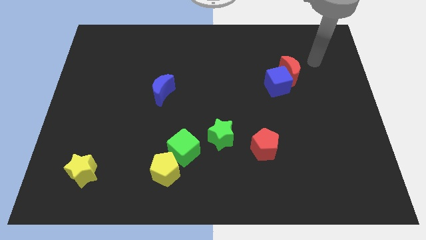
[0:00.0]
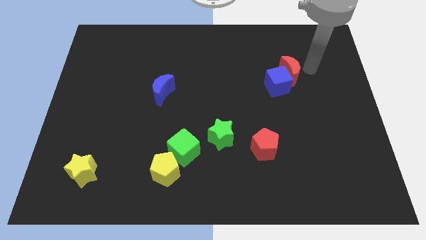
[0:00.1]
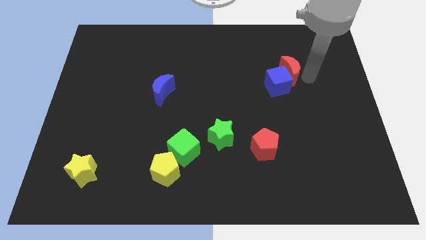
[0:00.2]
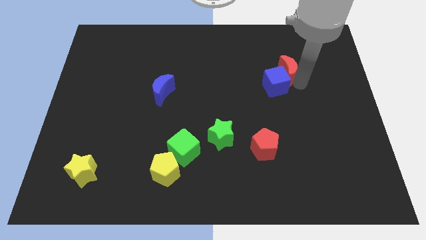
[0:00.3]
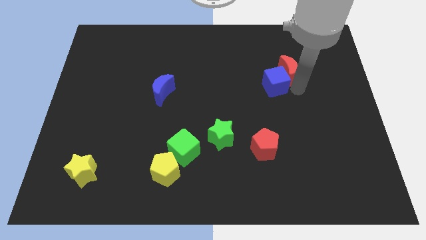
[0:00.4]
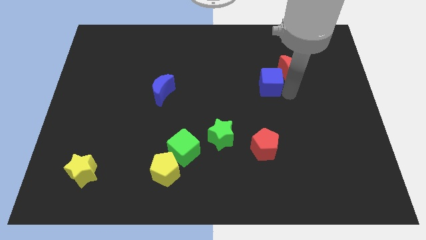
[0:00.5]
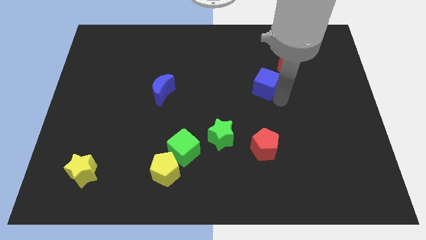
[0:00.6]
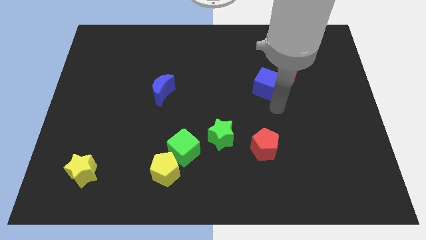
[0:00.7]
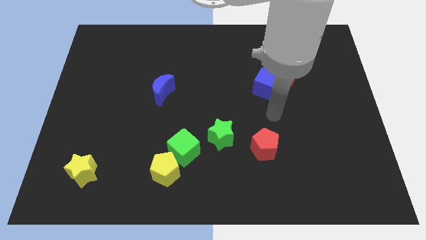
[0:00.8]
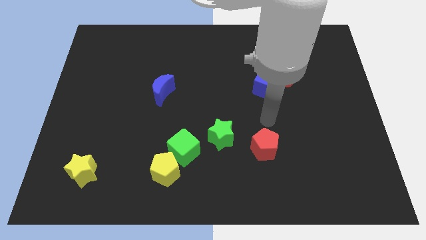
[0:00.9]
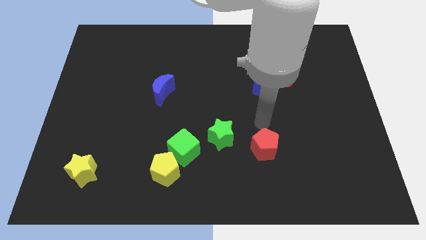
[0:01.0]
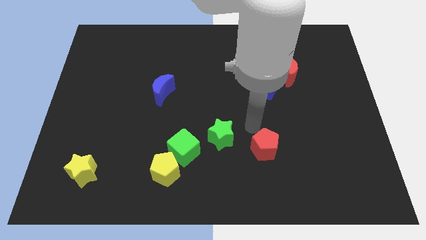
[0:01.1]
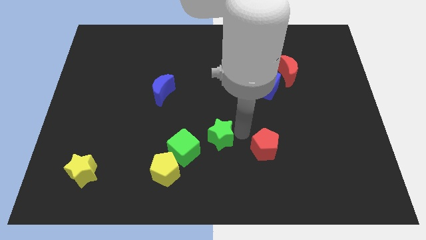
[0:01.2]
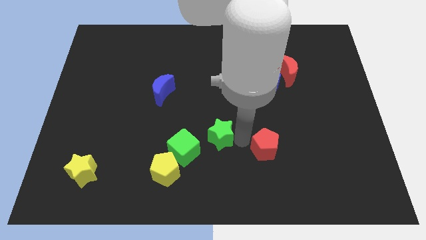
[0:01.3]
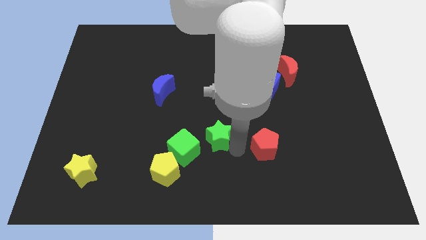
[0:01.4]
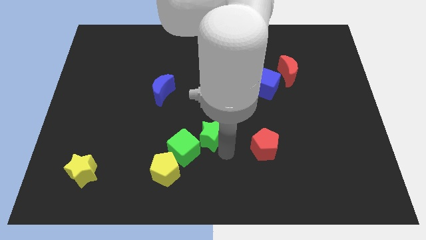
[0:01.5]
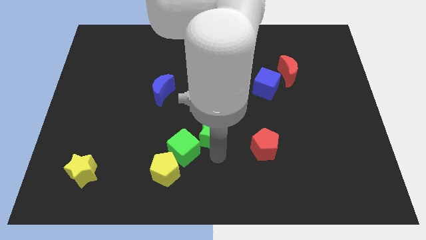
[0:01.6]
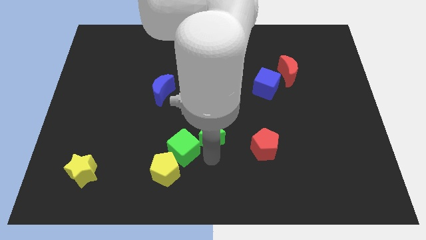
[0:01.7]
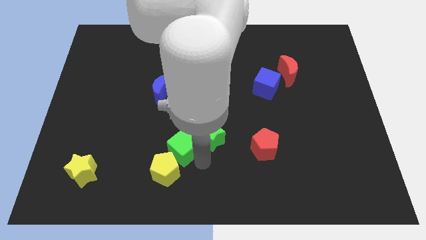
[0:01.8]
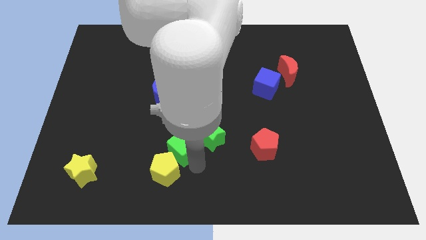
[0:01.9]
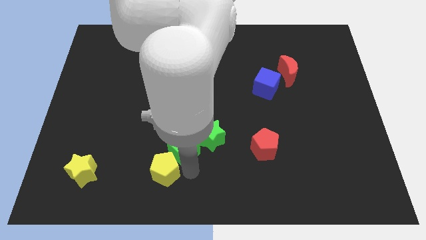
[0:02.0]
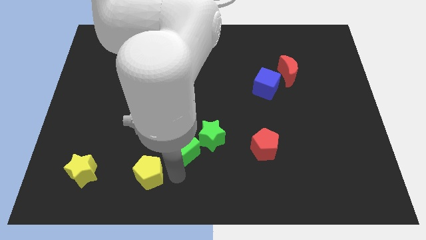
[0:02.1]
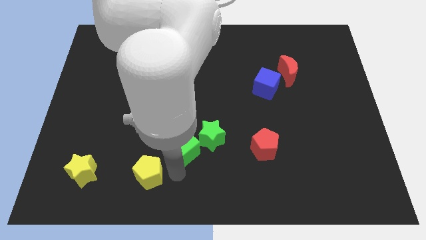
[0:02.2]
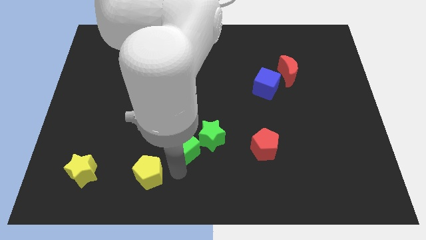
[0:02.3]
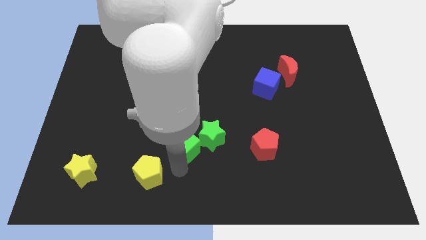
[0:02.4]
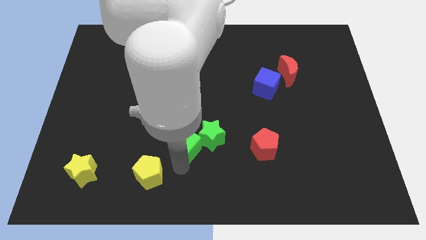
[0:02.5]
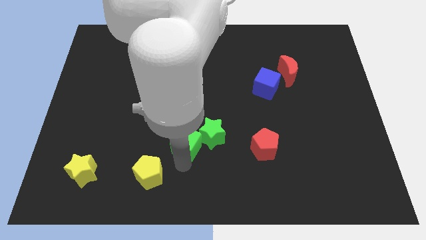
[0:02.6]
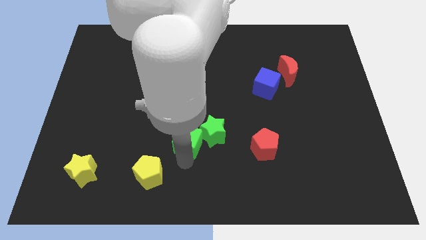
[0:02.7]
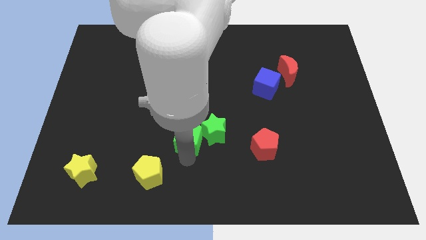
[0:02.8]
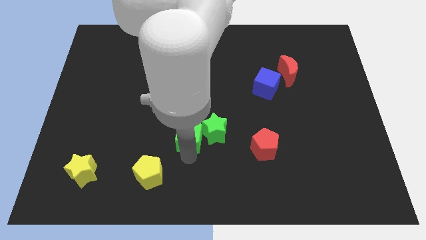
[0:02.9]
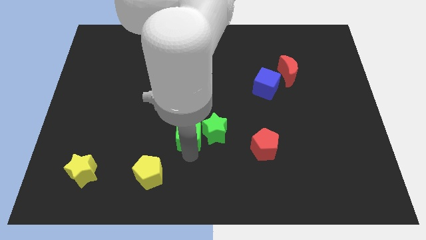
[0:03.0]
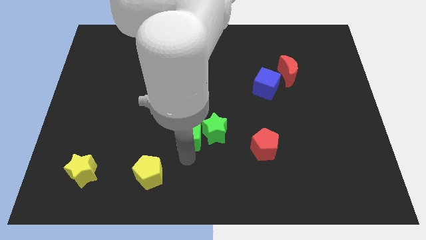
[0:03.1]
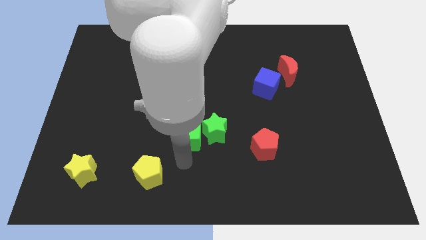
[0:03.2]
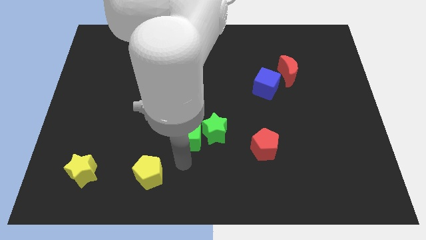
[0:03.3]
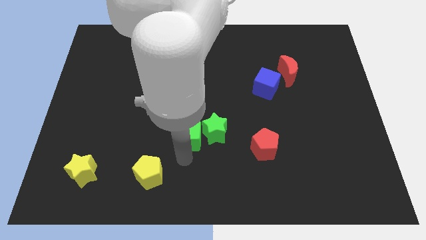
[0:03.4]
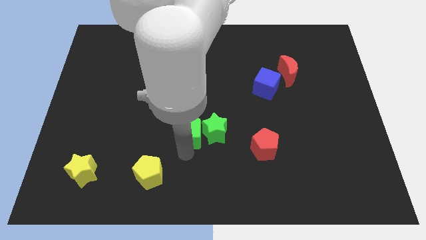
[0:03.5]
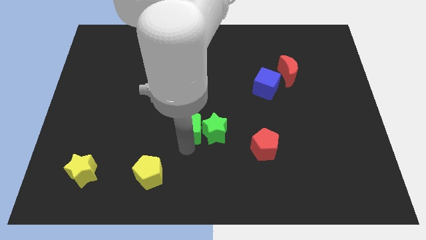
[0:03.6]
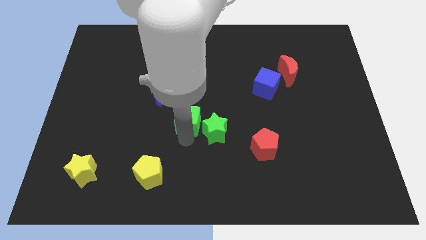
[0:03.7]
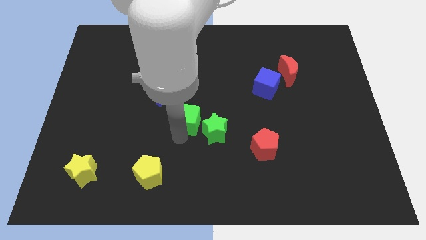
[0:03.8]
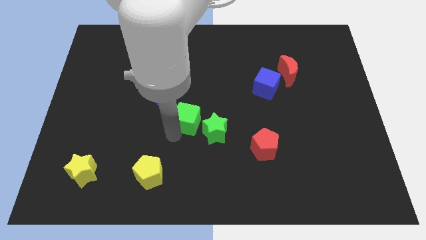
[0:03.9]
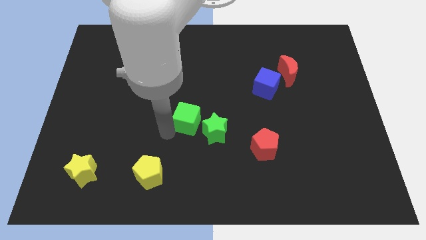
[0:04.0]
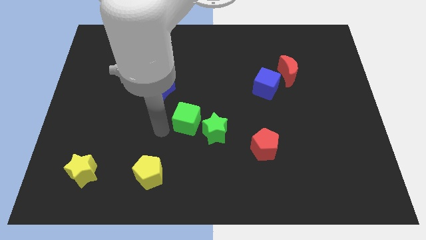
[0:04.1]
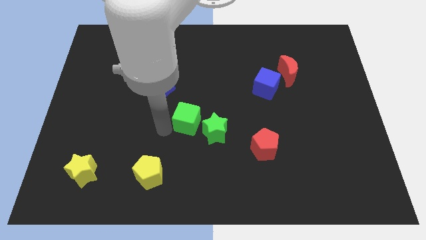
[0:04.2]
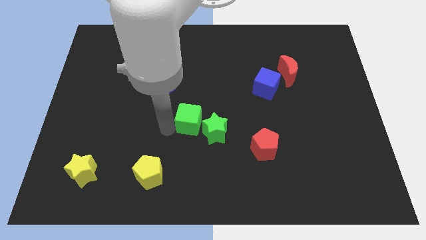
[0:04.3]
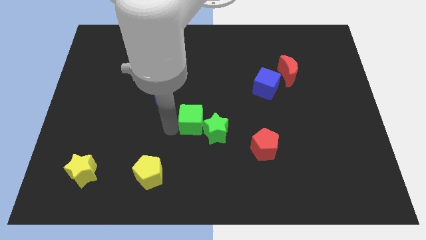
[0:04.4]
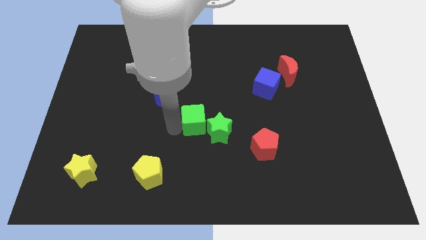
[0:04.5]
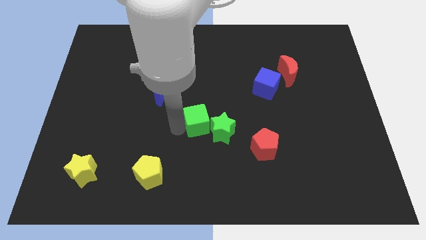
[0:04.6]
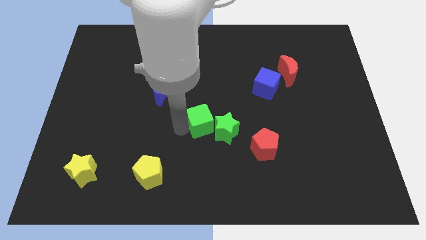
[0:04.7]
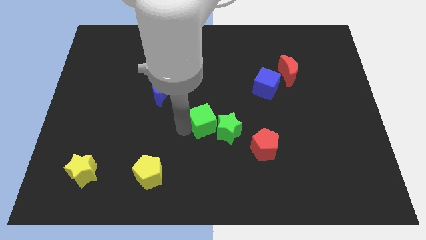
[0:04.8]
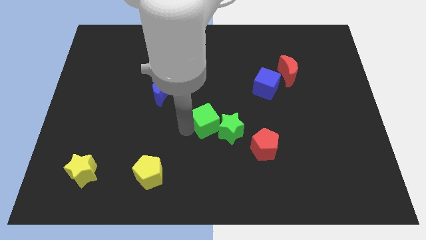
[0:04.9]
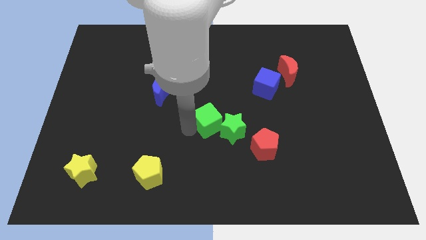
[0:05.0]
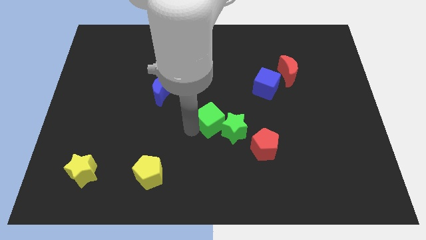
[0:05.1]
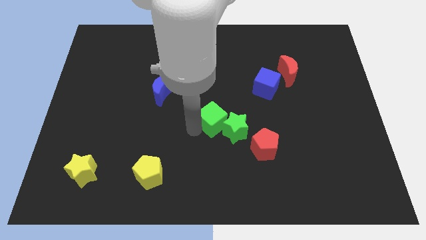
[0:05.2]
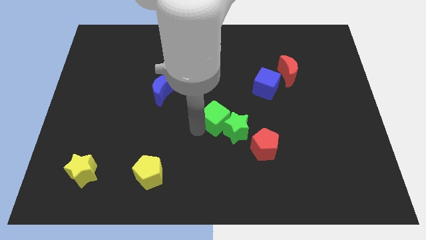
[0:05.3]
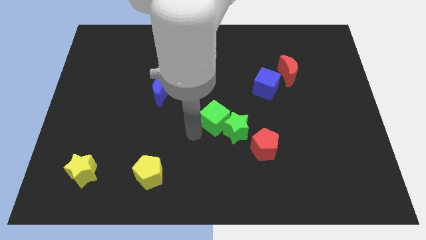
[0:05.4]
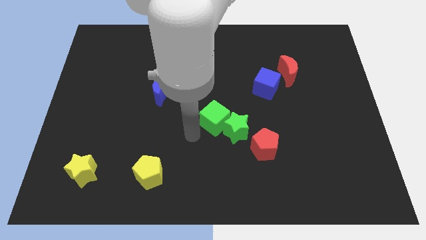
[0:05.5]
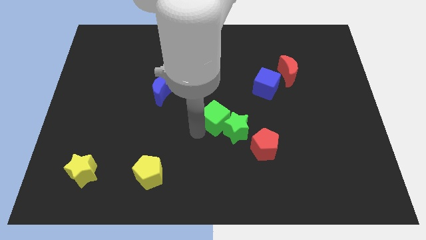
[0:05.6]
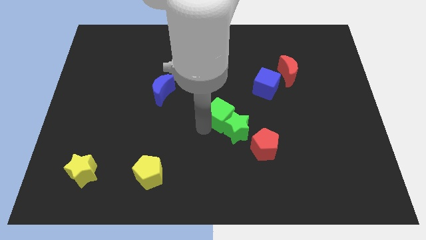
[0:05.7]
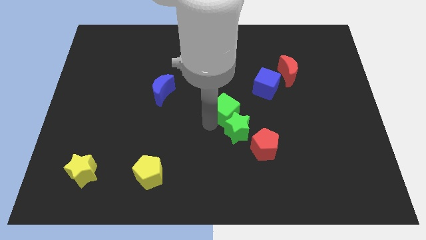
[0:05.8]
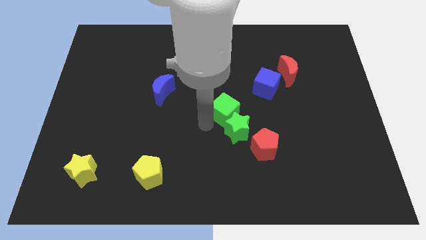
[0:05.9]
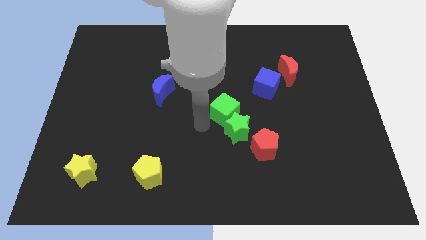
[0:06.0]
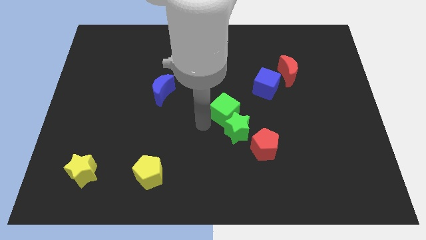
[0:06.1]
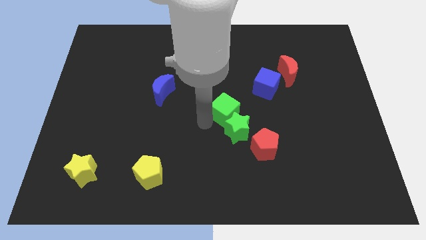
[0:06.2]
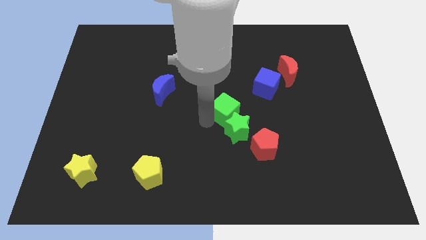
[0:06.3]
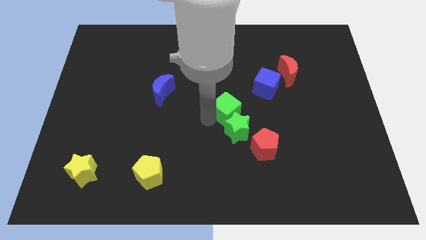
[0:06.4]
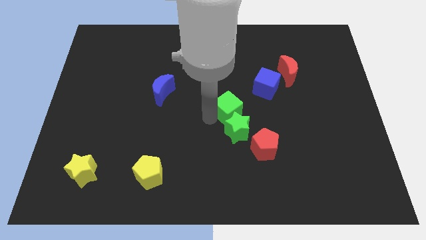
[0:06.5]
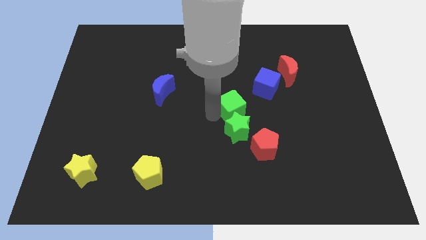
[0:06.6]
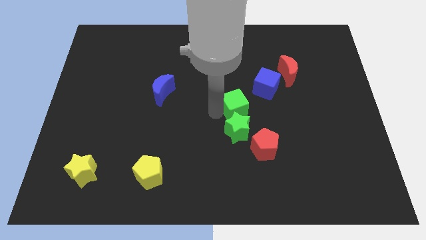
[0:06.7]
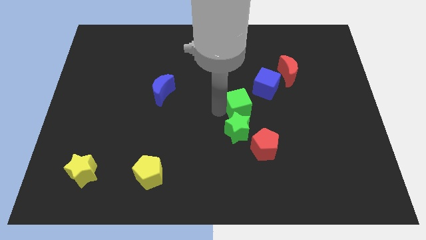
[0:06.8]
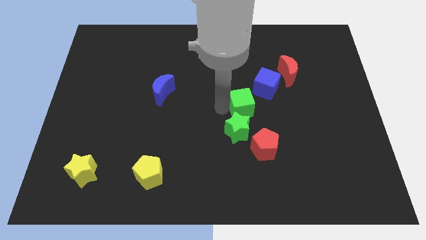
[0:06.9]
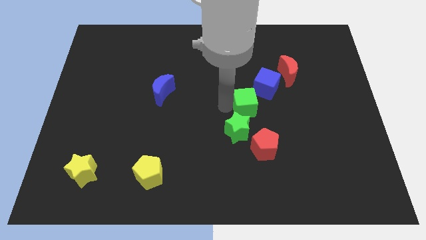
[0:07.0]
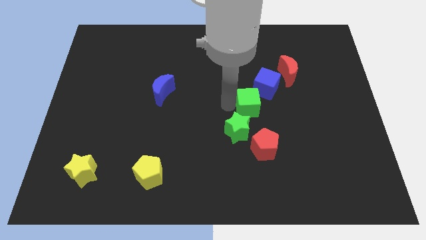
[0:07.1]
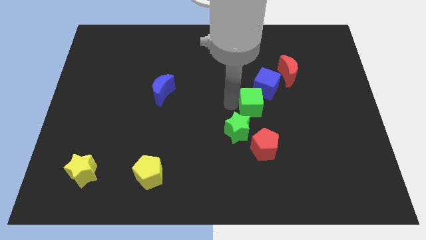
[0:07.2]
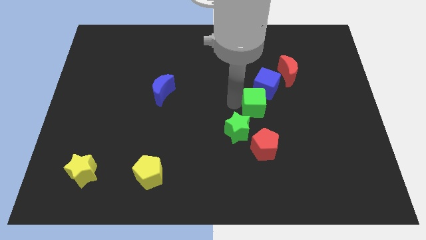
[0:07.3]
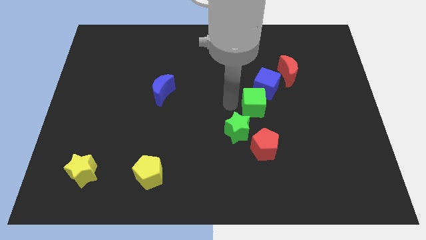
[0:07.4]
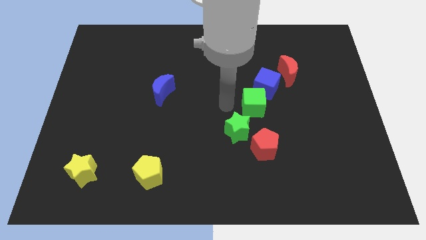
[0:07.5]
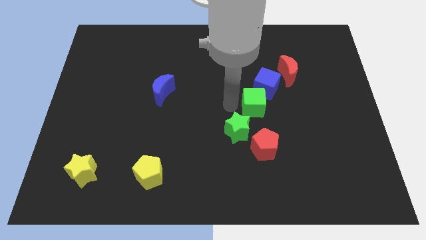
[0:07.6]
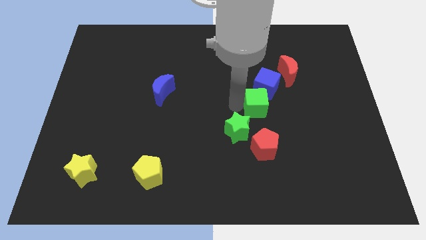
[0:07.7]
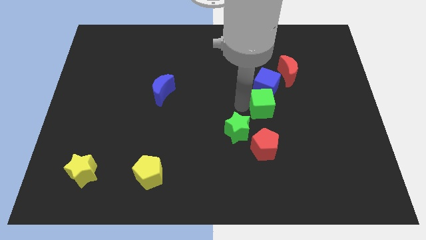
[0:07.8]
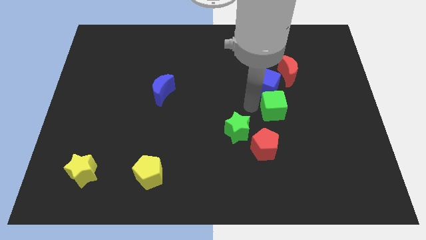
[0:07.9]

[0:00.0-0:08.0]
push the green cube to the bottom of the red moon
